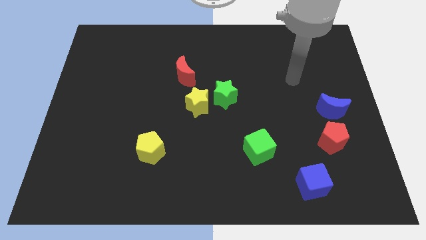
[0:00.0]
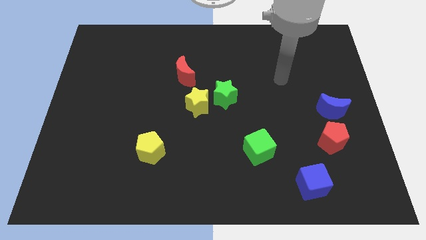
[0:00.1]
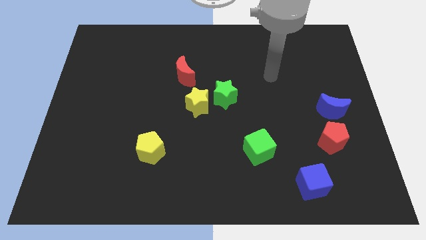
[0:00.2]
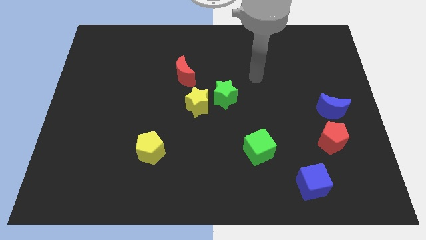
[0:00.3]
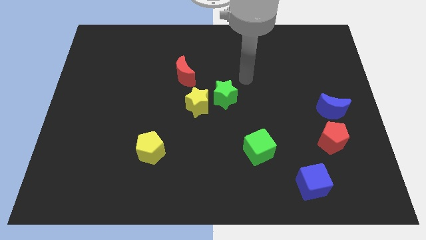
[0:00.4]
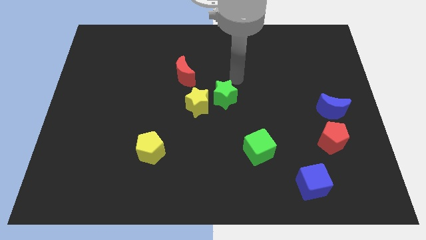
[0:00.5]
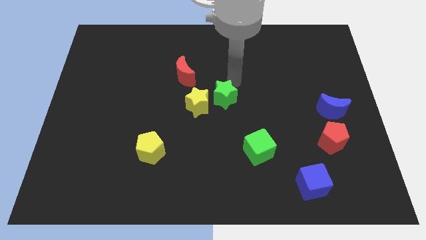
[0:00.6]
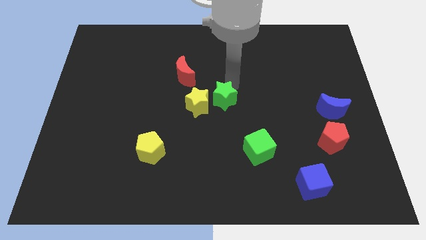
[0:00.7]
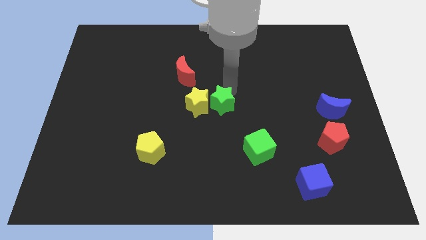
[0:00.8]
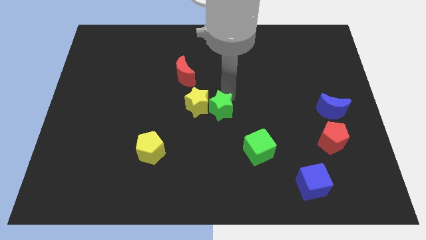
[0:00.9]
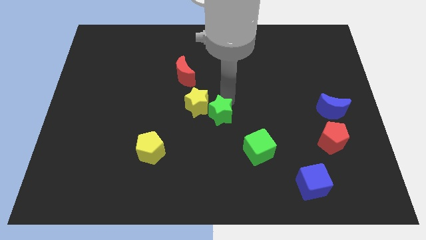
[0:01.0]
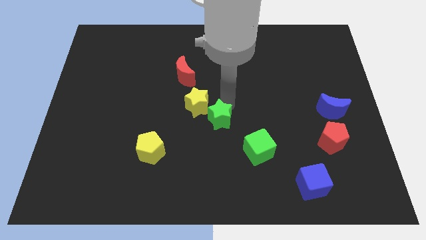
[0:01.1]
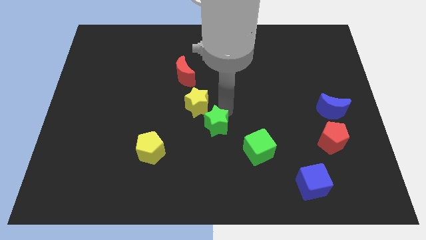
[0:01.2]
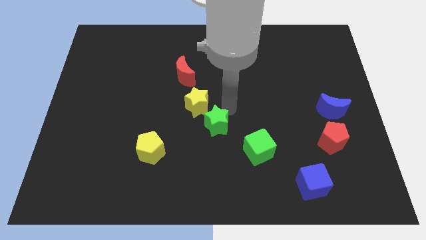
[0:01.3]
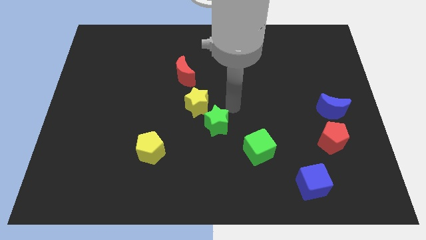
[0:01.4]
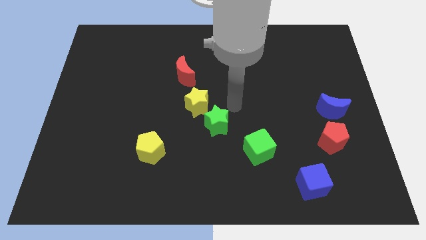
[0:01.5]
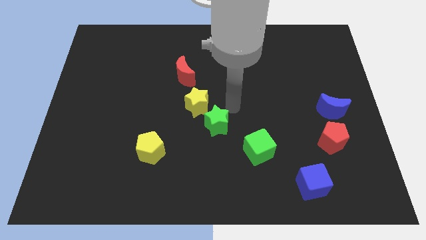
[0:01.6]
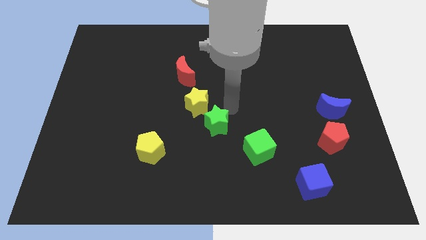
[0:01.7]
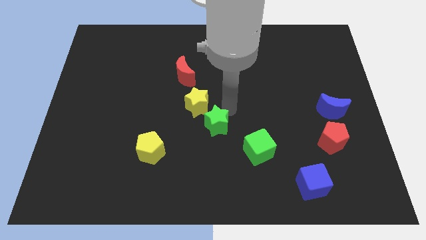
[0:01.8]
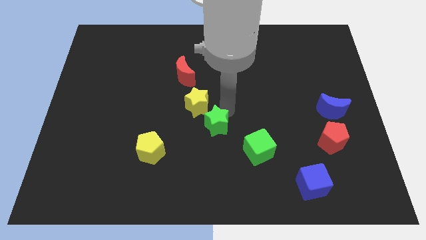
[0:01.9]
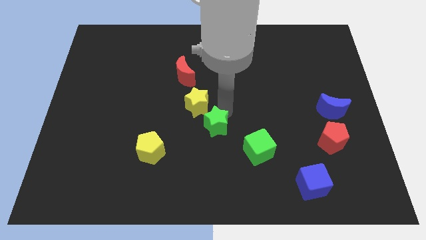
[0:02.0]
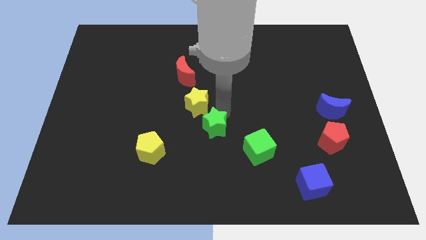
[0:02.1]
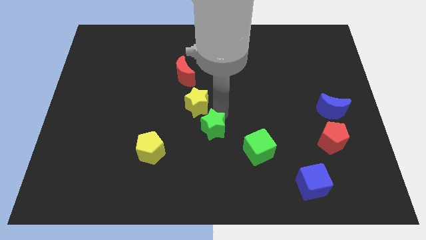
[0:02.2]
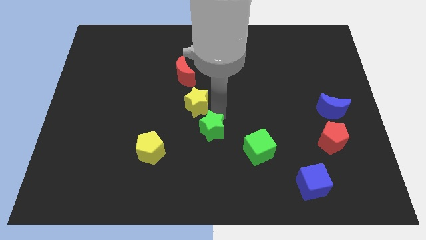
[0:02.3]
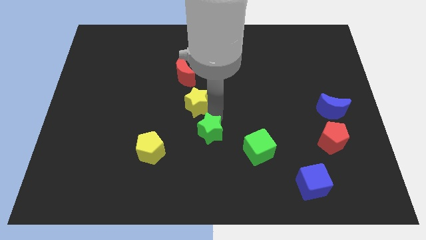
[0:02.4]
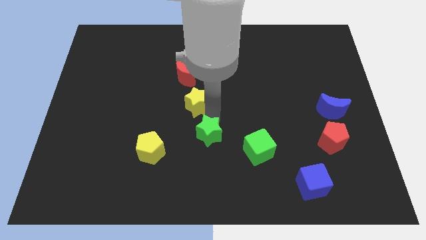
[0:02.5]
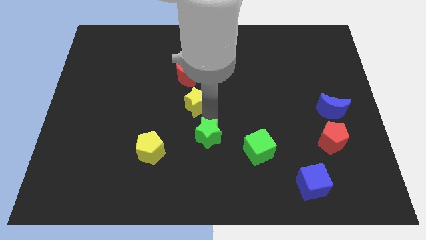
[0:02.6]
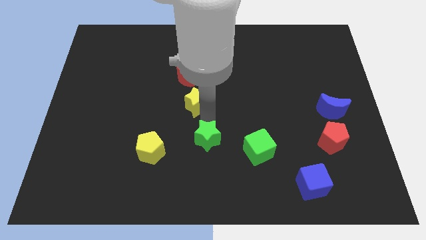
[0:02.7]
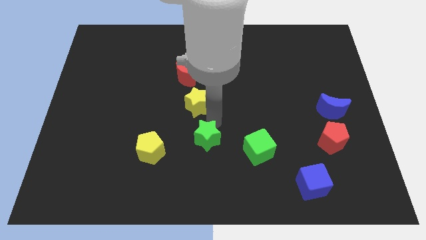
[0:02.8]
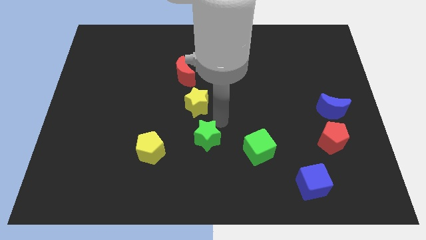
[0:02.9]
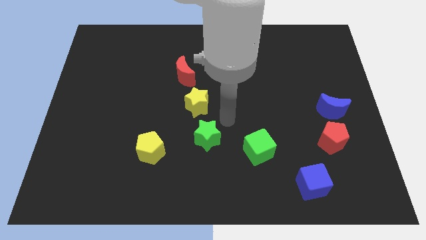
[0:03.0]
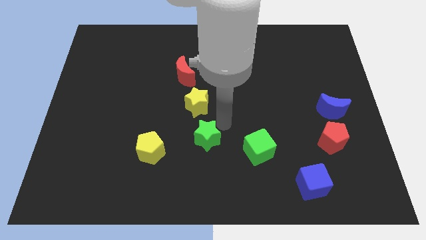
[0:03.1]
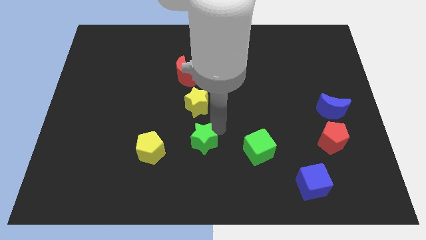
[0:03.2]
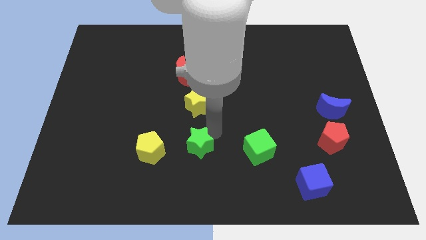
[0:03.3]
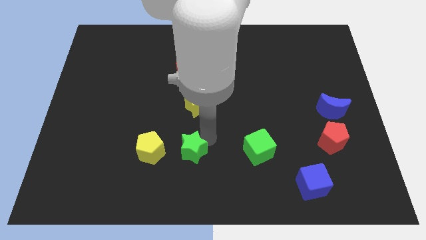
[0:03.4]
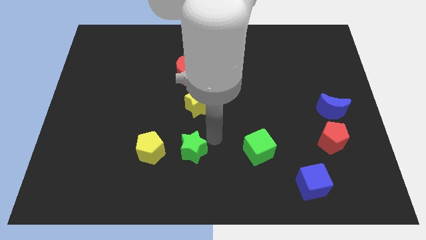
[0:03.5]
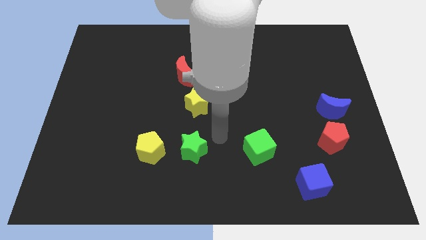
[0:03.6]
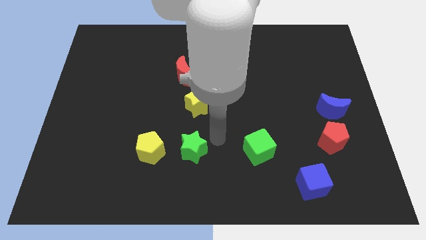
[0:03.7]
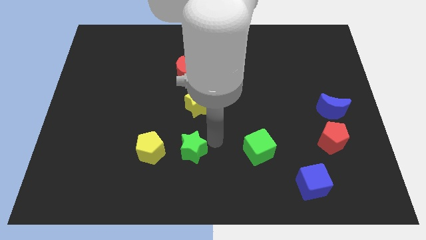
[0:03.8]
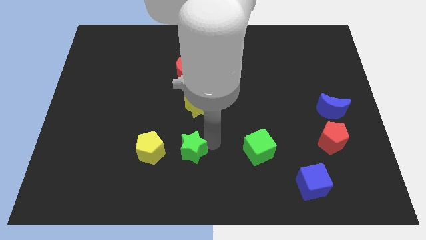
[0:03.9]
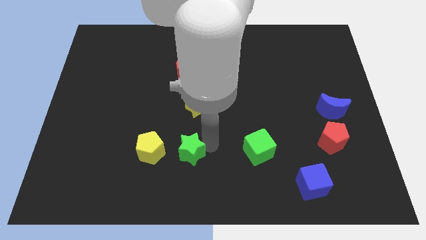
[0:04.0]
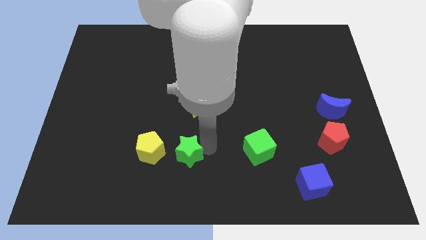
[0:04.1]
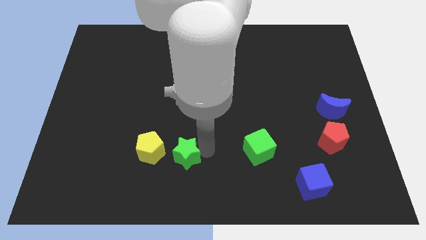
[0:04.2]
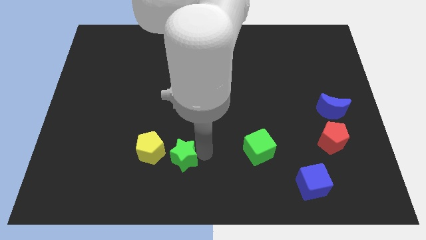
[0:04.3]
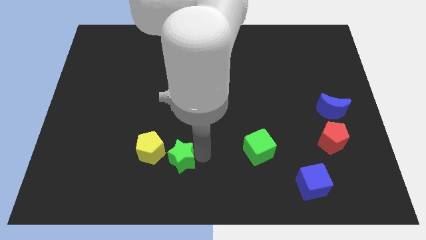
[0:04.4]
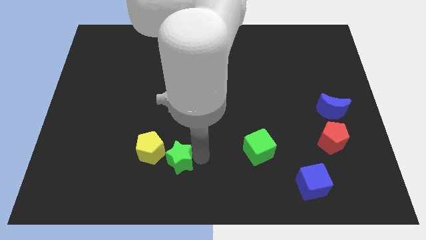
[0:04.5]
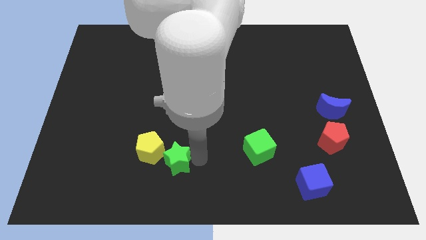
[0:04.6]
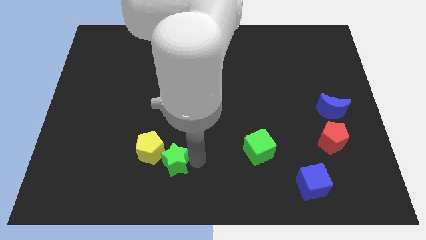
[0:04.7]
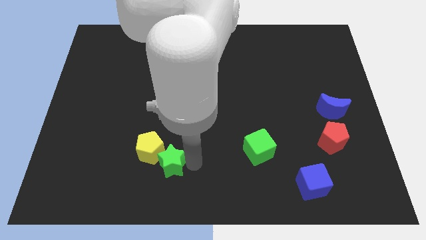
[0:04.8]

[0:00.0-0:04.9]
push the green star downwards and to the left

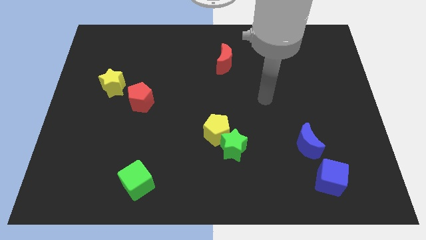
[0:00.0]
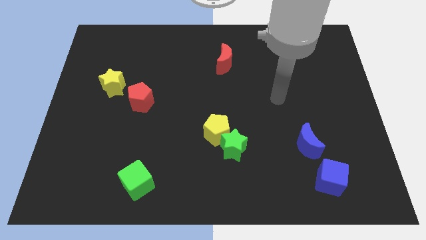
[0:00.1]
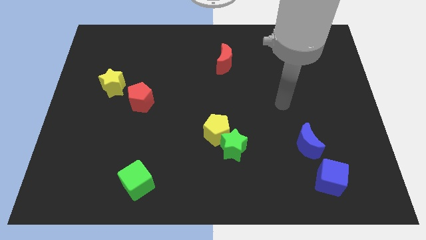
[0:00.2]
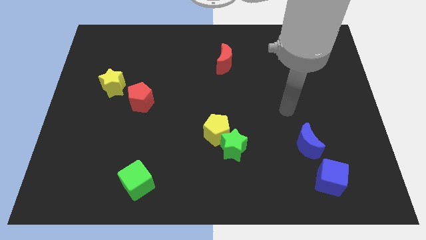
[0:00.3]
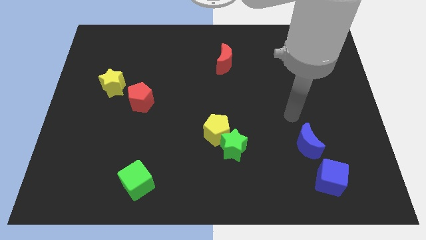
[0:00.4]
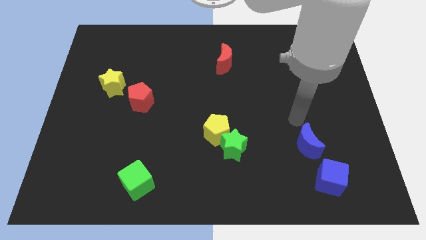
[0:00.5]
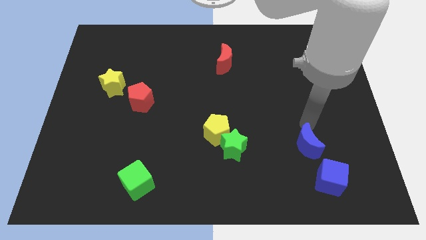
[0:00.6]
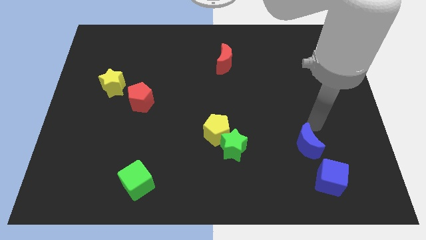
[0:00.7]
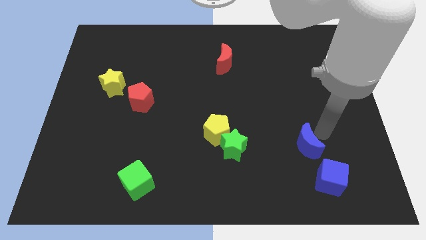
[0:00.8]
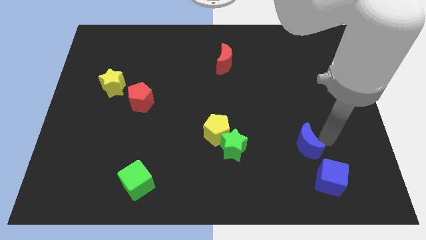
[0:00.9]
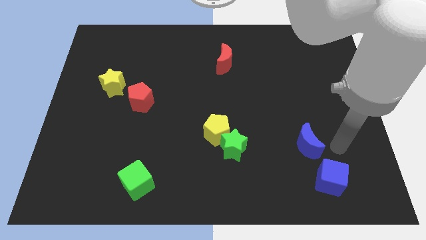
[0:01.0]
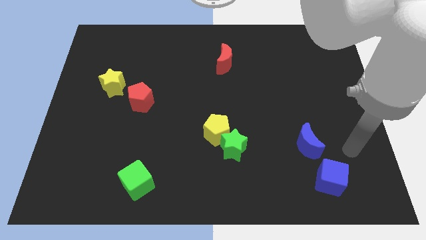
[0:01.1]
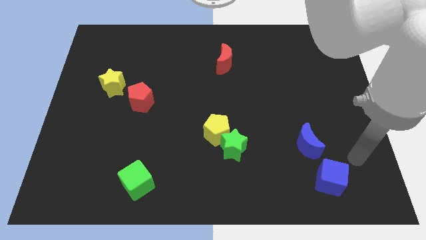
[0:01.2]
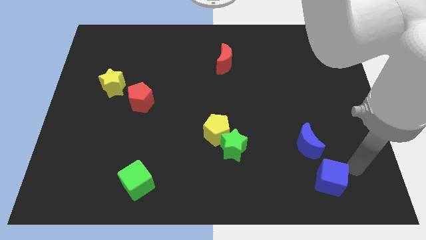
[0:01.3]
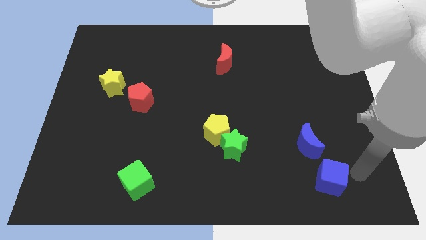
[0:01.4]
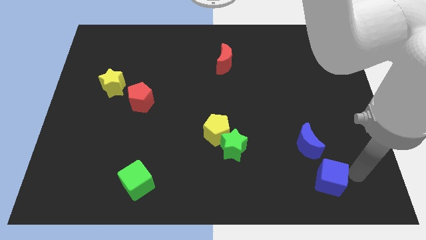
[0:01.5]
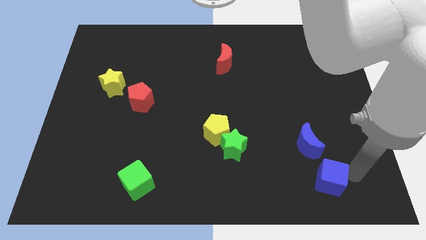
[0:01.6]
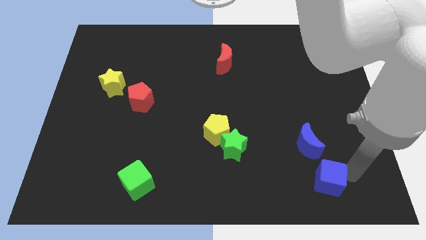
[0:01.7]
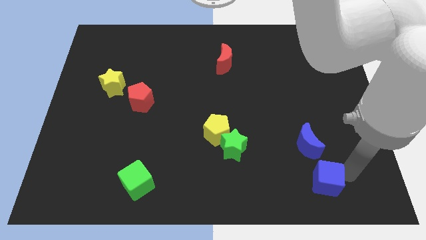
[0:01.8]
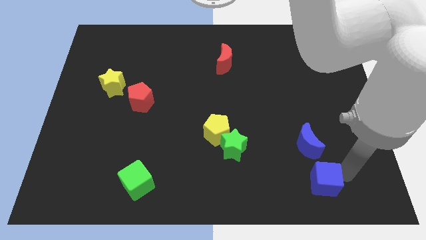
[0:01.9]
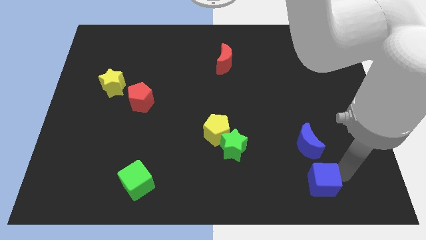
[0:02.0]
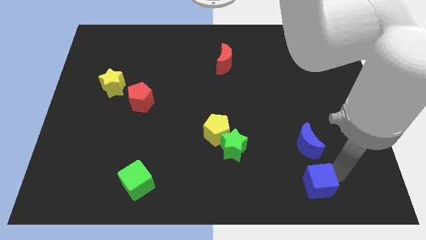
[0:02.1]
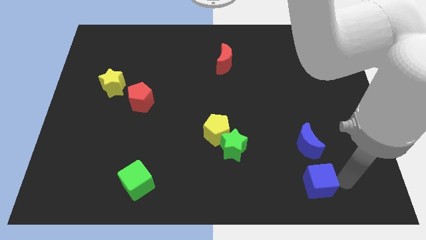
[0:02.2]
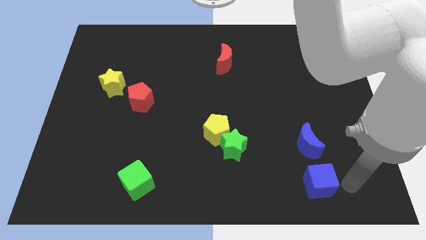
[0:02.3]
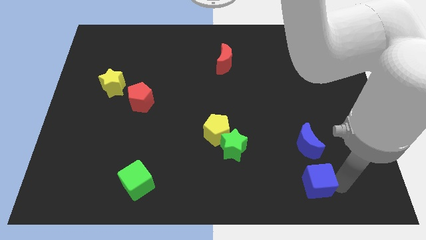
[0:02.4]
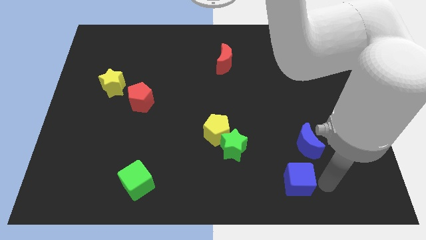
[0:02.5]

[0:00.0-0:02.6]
slightly slide the blue cube left

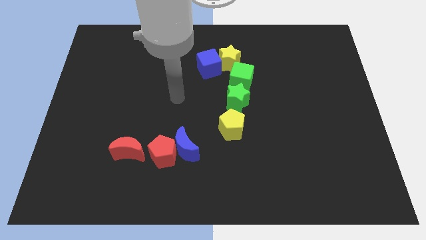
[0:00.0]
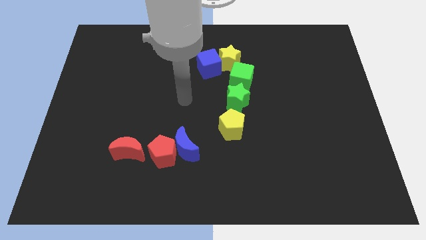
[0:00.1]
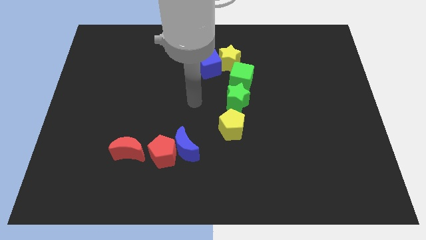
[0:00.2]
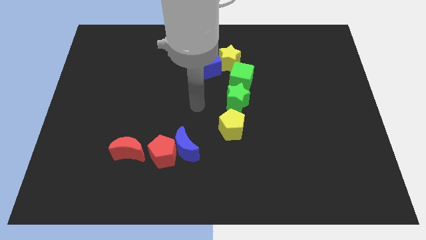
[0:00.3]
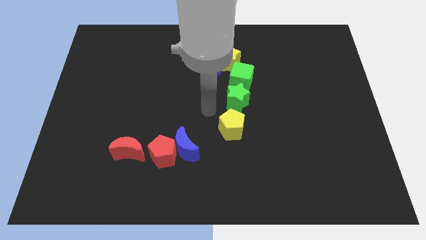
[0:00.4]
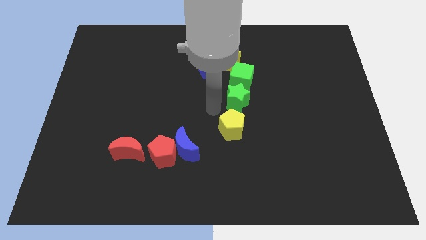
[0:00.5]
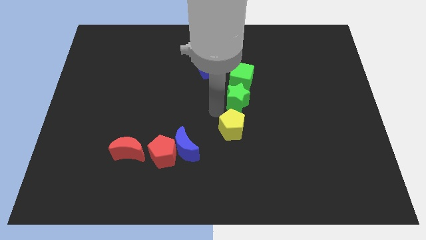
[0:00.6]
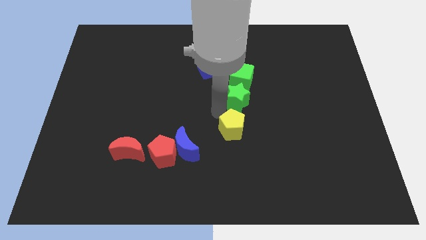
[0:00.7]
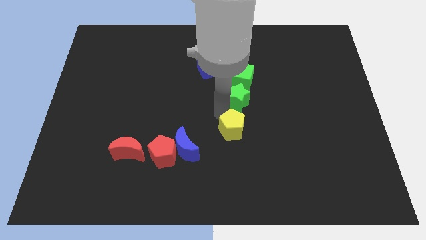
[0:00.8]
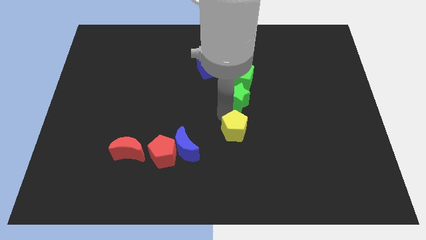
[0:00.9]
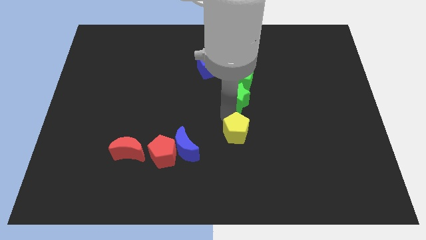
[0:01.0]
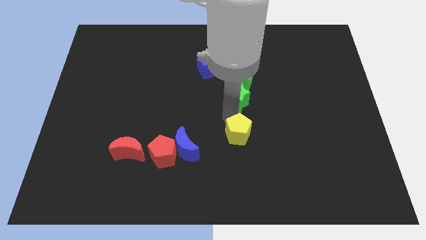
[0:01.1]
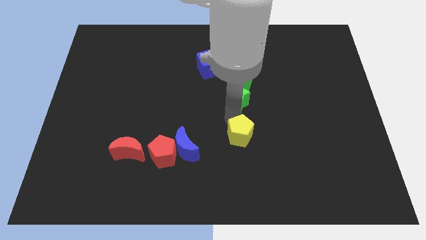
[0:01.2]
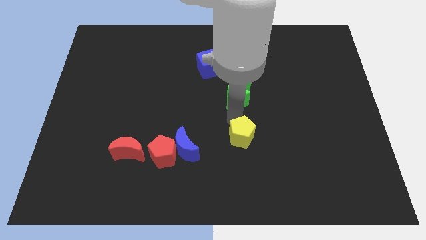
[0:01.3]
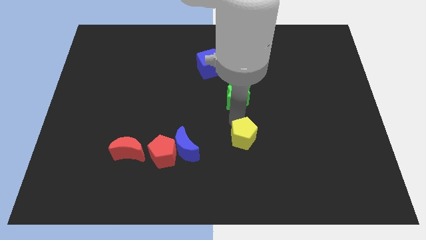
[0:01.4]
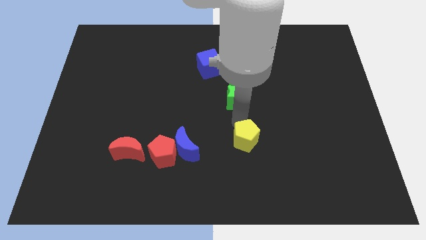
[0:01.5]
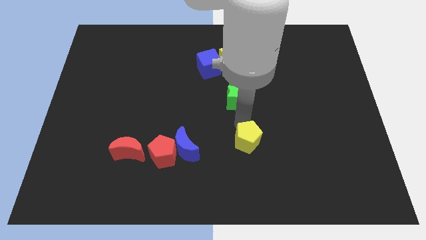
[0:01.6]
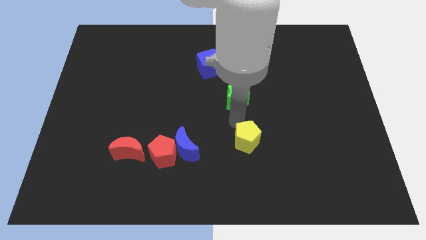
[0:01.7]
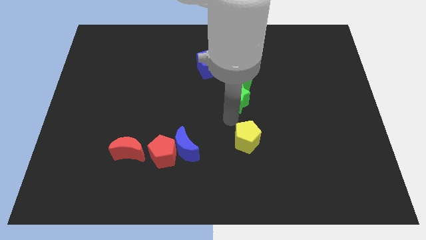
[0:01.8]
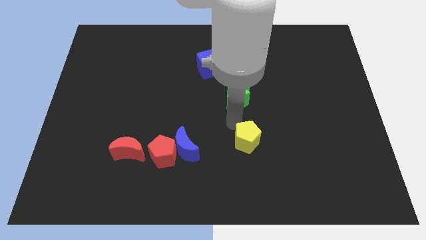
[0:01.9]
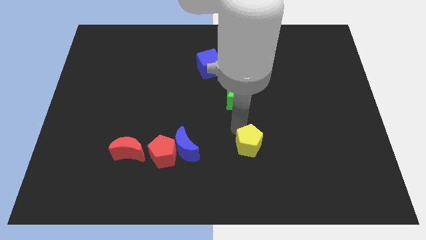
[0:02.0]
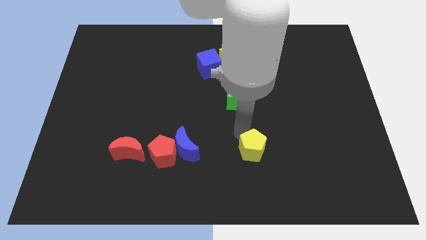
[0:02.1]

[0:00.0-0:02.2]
move the yellow pentagon a little bit diagonally down and to the right
